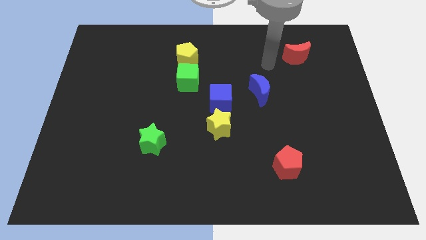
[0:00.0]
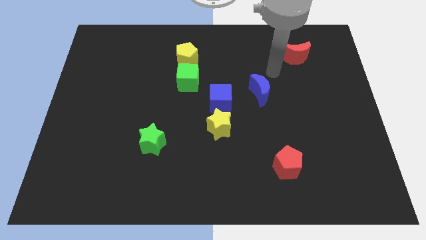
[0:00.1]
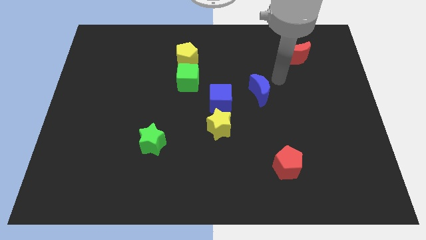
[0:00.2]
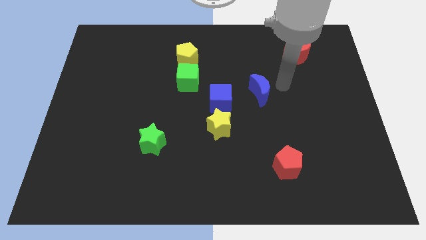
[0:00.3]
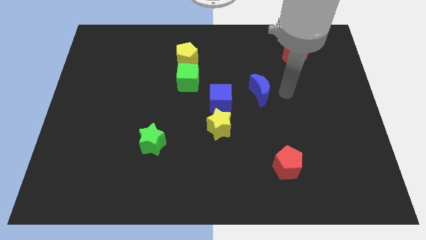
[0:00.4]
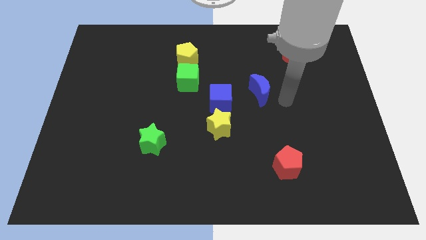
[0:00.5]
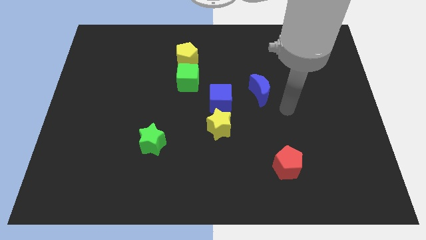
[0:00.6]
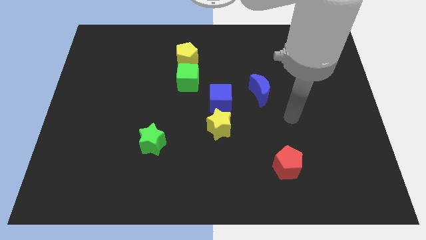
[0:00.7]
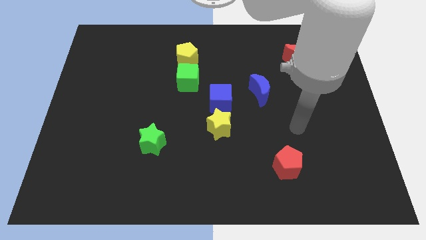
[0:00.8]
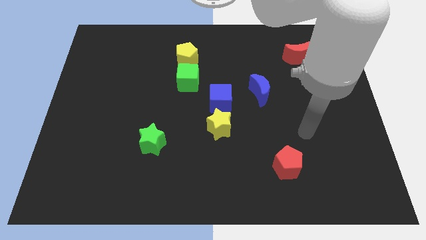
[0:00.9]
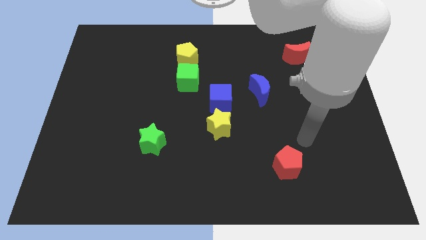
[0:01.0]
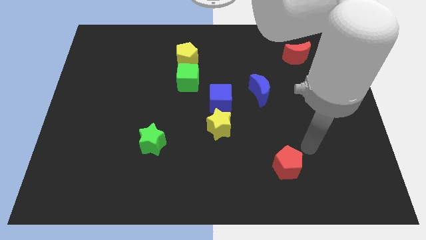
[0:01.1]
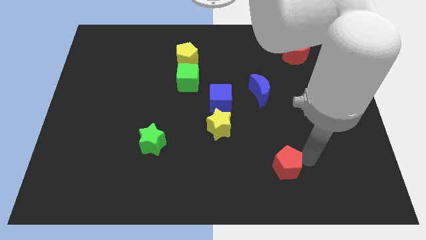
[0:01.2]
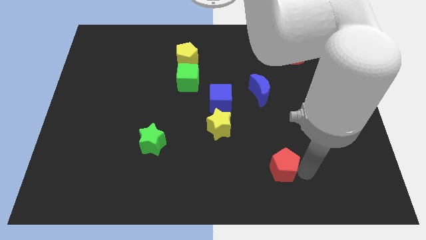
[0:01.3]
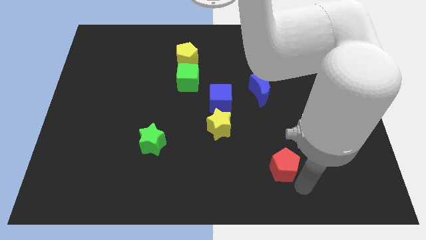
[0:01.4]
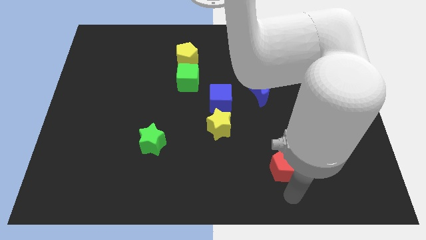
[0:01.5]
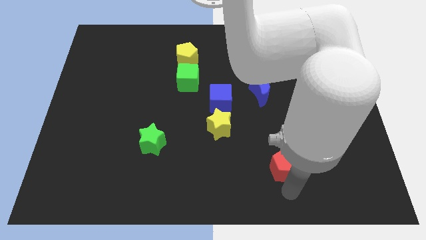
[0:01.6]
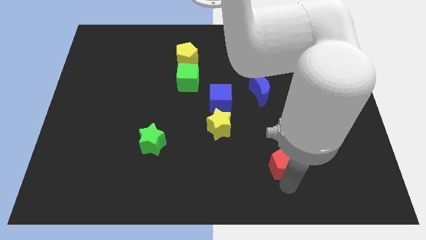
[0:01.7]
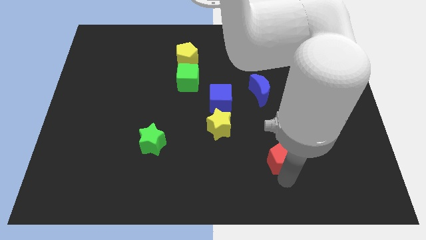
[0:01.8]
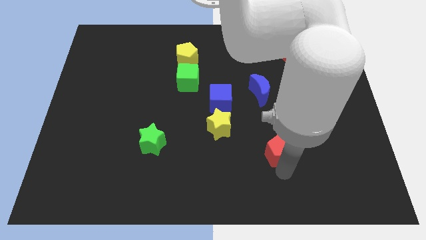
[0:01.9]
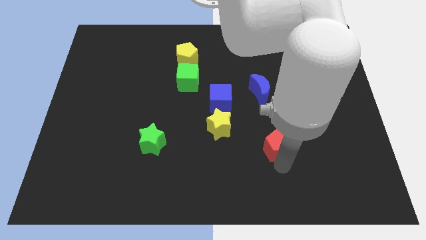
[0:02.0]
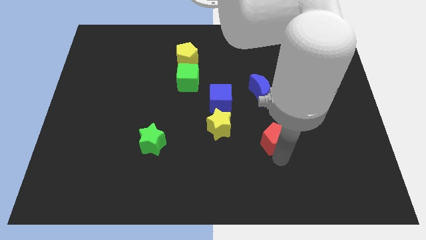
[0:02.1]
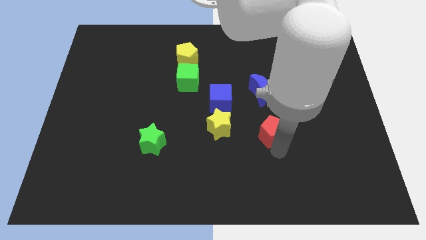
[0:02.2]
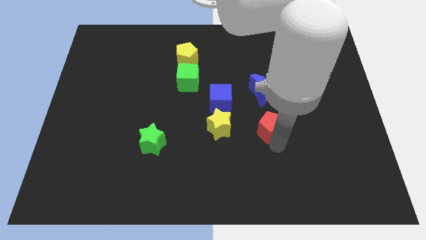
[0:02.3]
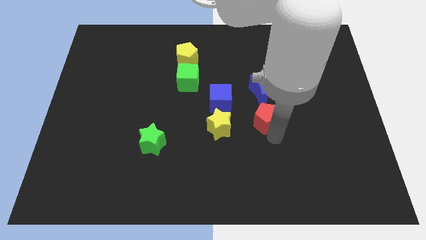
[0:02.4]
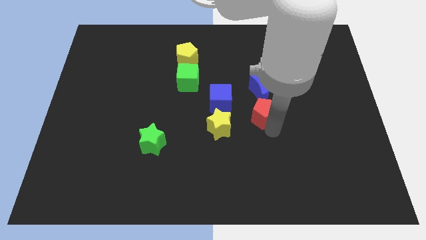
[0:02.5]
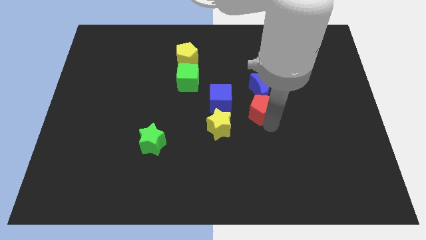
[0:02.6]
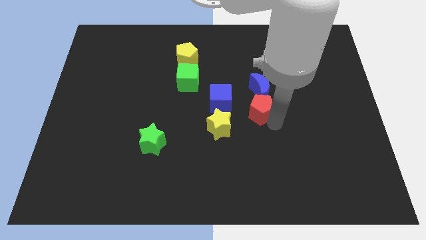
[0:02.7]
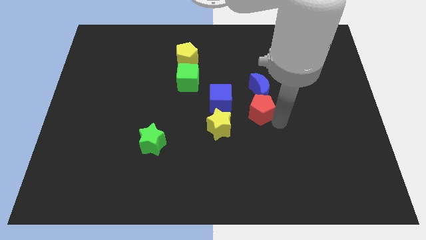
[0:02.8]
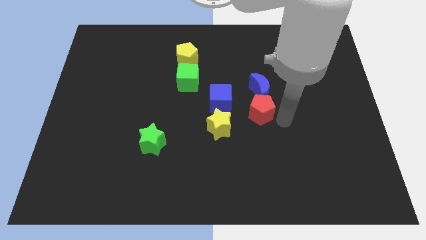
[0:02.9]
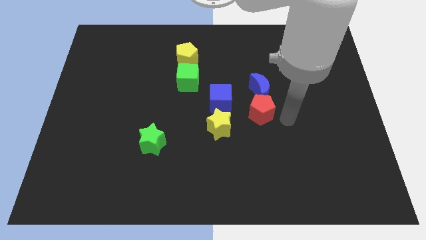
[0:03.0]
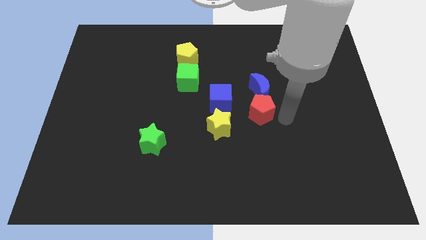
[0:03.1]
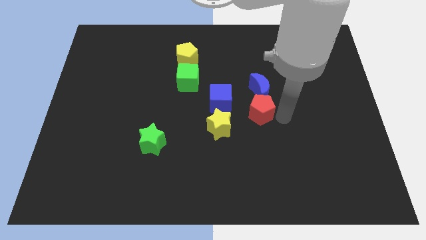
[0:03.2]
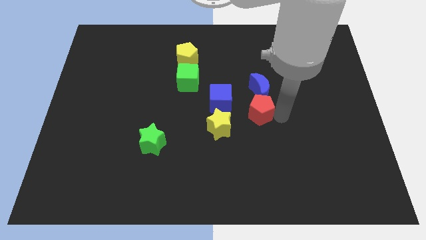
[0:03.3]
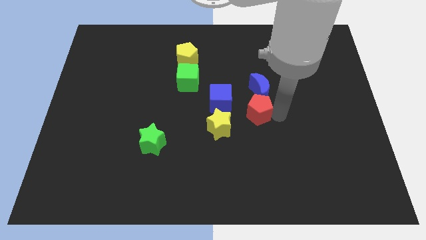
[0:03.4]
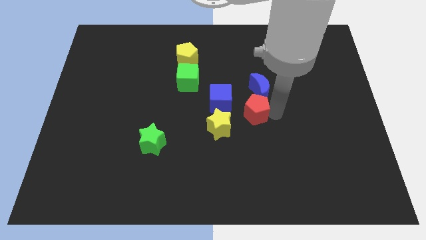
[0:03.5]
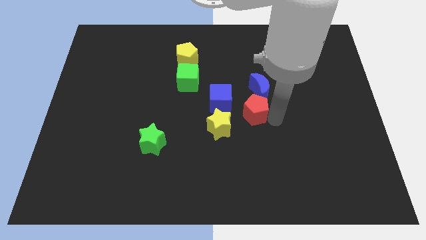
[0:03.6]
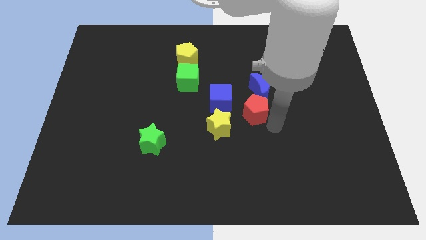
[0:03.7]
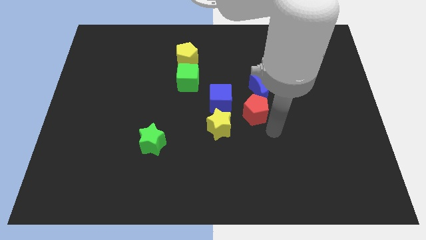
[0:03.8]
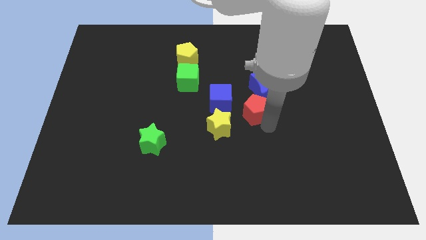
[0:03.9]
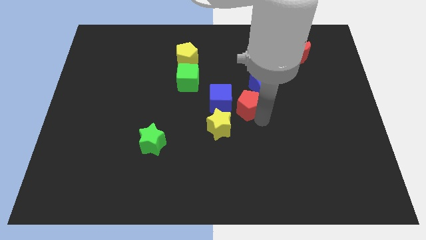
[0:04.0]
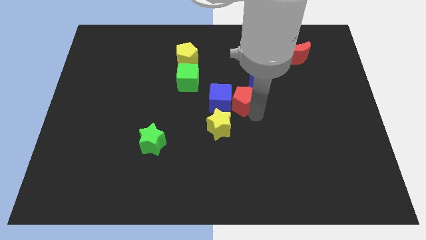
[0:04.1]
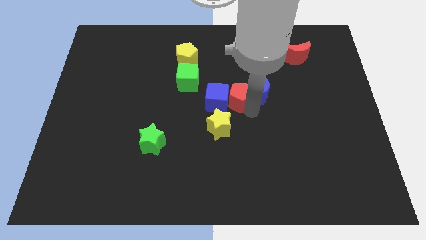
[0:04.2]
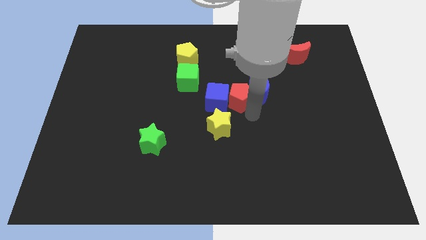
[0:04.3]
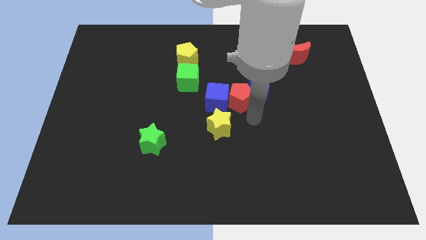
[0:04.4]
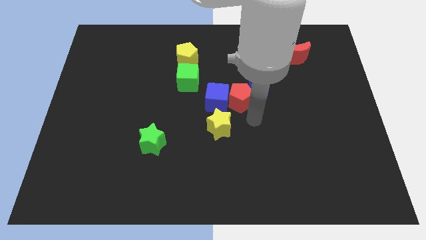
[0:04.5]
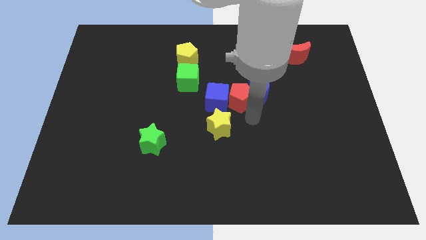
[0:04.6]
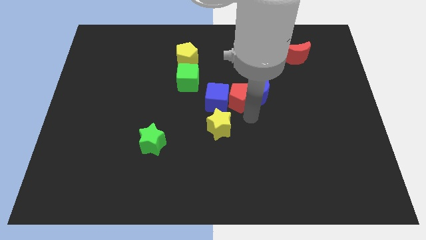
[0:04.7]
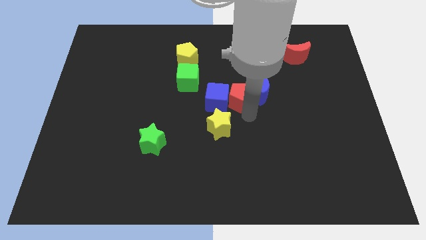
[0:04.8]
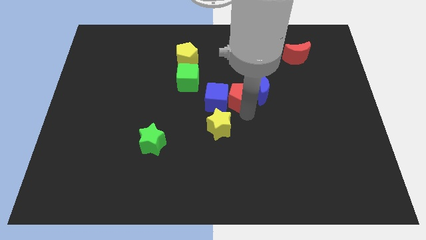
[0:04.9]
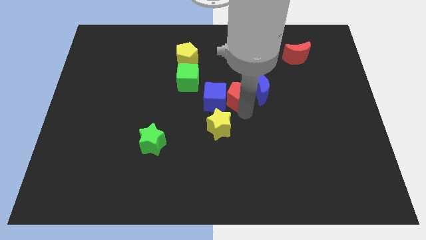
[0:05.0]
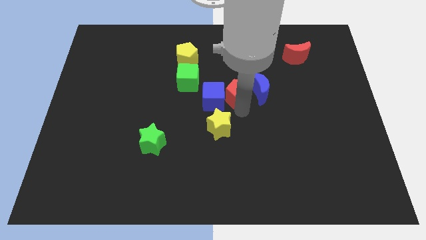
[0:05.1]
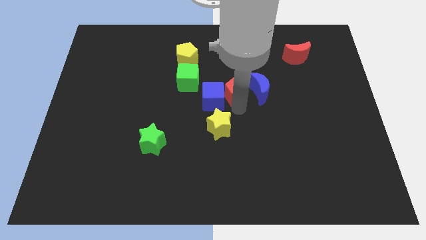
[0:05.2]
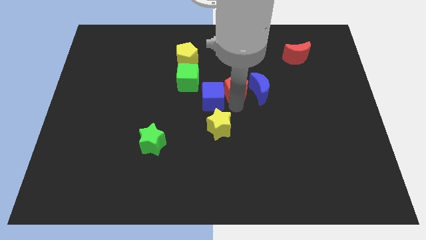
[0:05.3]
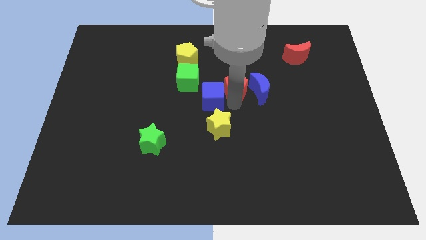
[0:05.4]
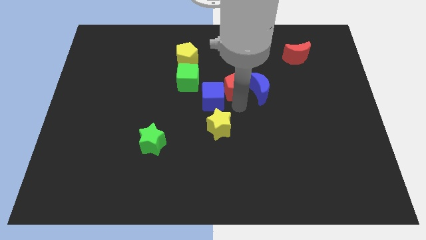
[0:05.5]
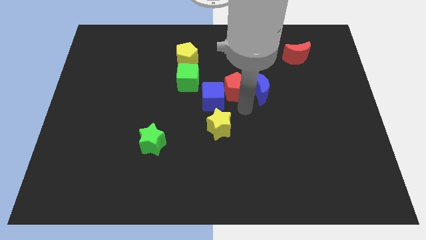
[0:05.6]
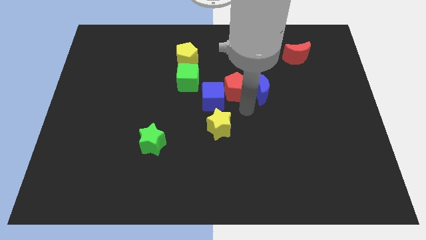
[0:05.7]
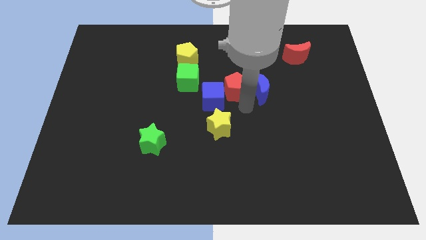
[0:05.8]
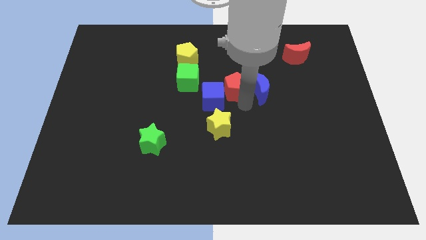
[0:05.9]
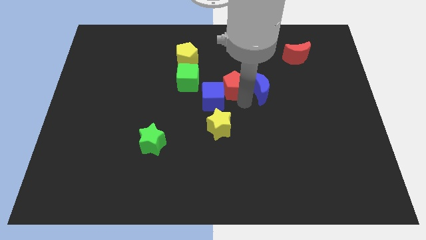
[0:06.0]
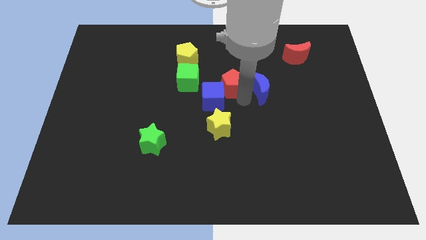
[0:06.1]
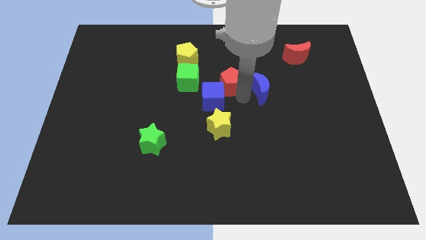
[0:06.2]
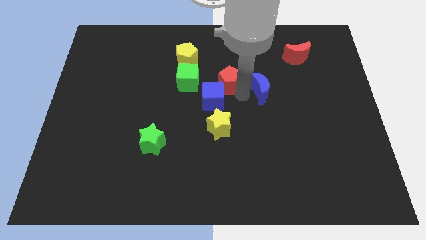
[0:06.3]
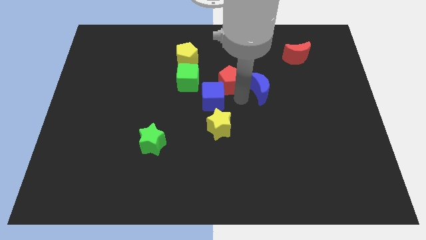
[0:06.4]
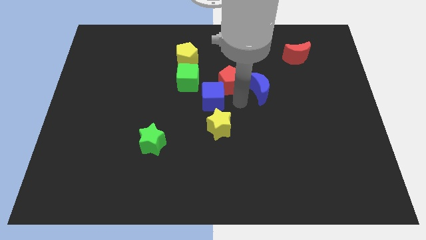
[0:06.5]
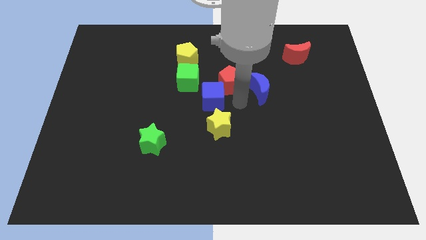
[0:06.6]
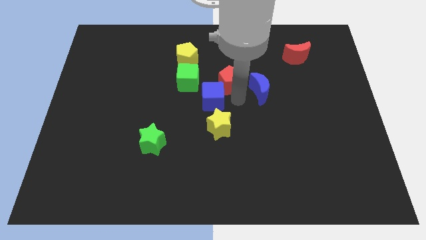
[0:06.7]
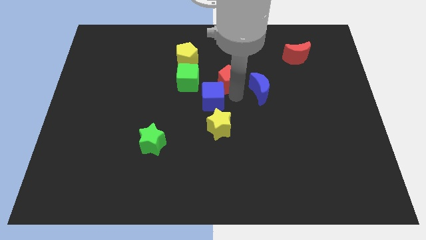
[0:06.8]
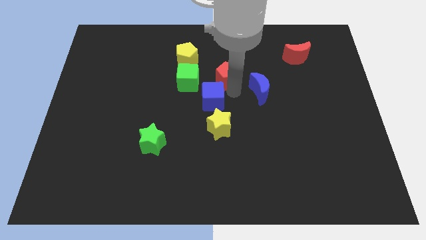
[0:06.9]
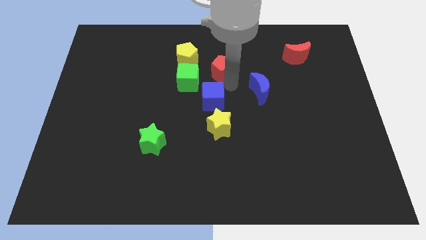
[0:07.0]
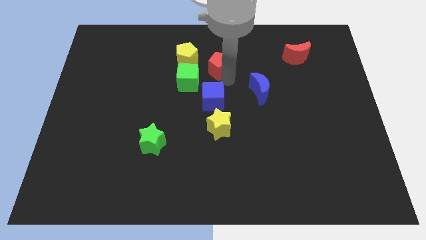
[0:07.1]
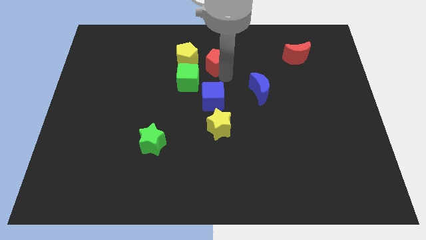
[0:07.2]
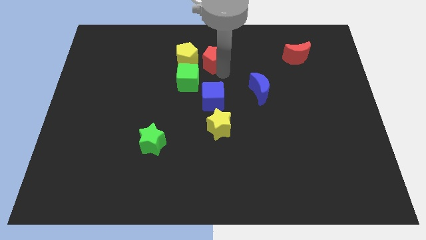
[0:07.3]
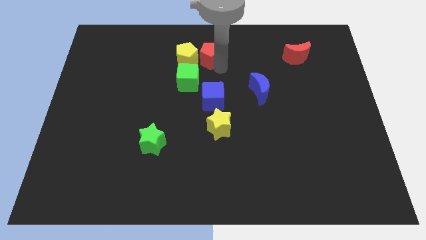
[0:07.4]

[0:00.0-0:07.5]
push the red pentagon next to the yellow pentagon

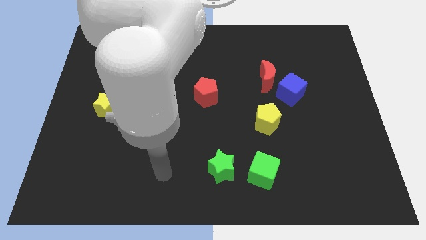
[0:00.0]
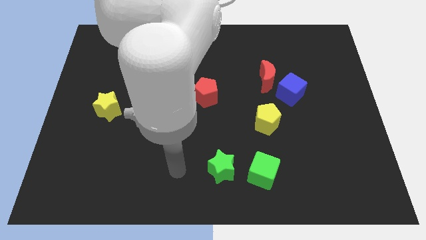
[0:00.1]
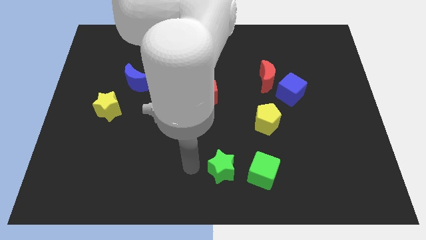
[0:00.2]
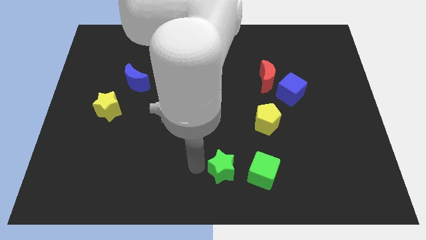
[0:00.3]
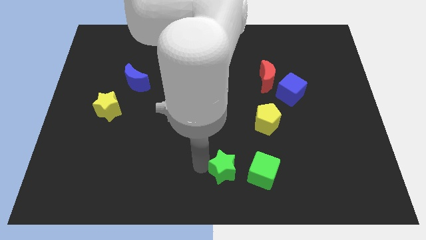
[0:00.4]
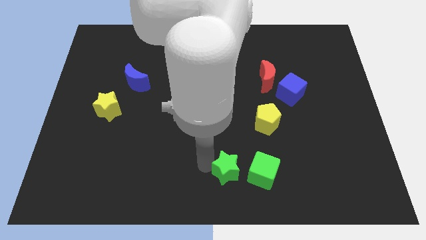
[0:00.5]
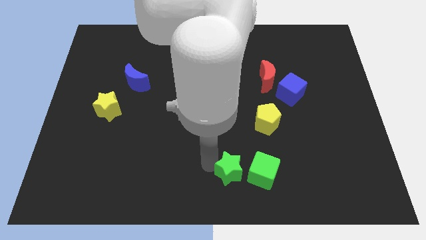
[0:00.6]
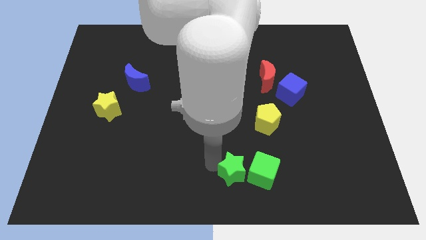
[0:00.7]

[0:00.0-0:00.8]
slide the green star towards the green cube
